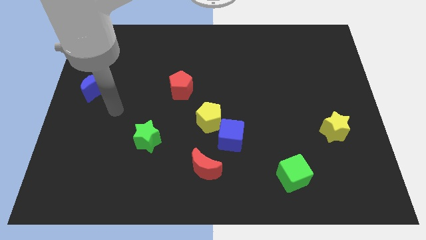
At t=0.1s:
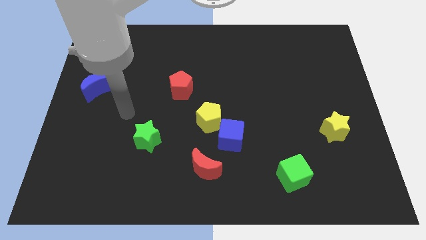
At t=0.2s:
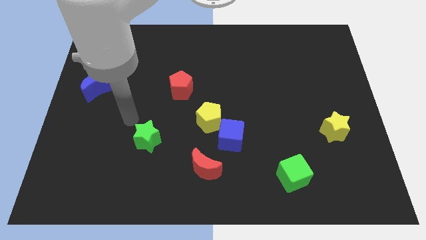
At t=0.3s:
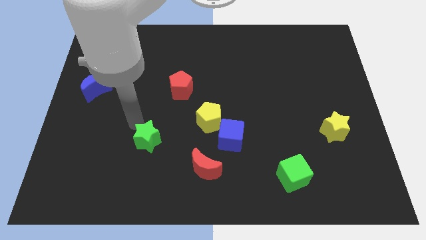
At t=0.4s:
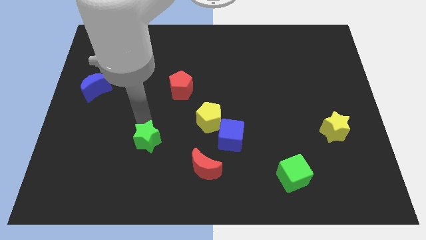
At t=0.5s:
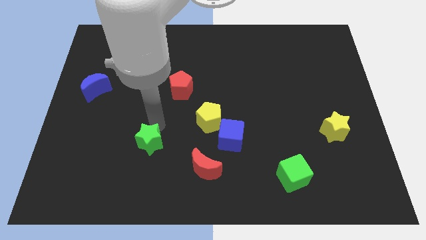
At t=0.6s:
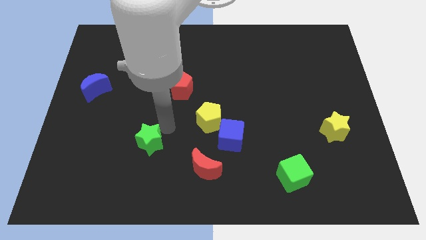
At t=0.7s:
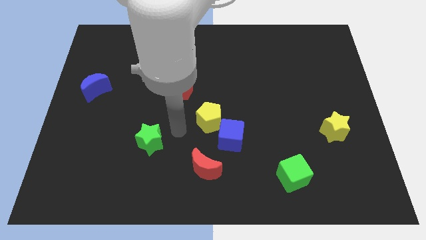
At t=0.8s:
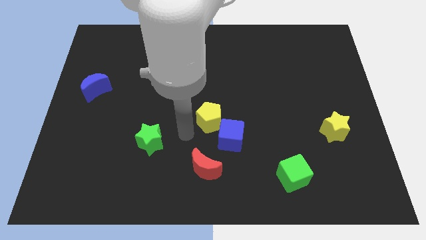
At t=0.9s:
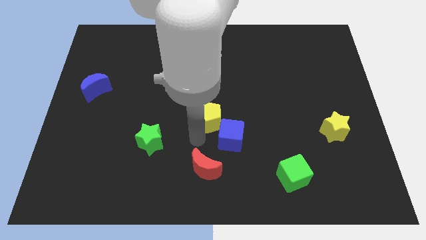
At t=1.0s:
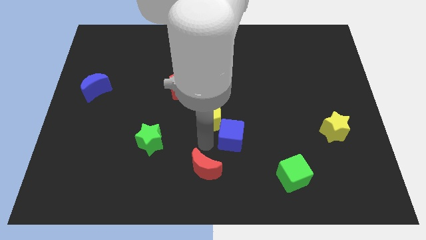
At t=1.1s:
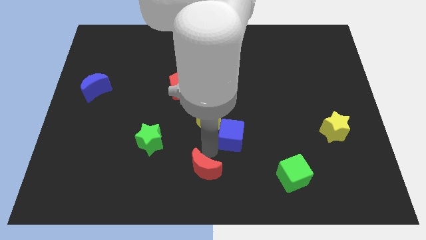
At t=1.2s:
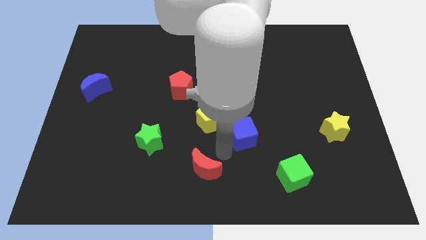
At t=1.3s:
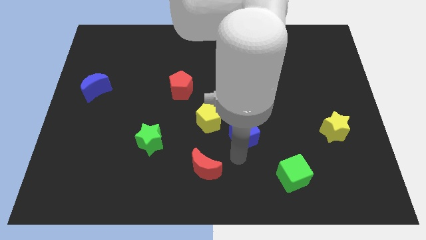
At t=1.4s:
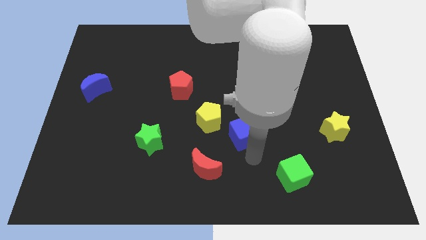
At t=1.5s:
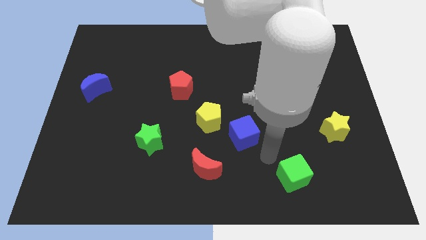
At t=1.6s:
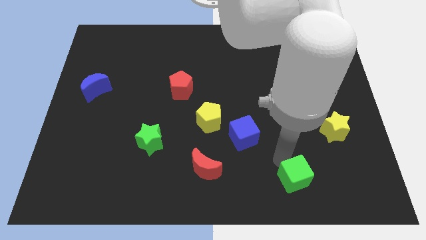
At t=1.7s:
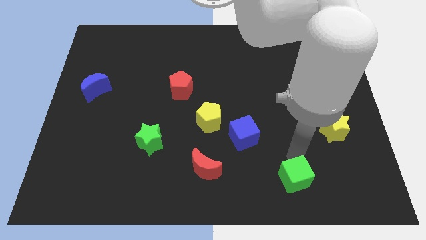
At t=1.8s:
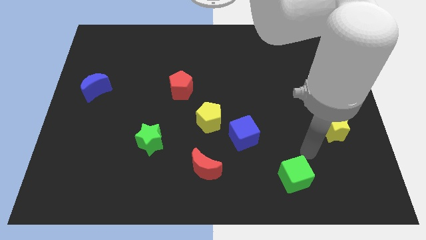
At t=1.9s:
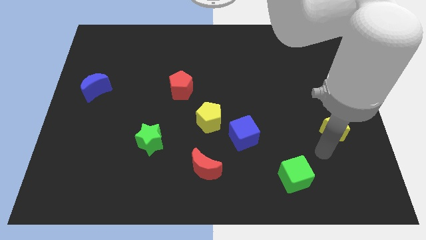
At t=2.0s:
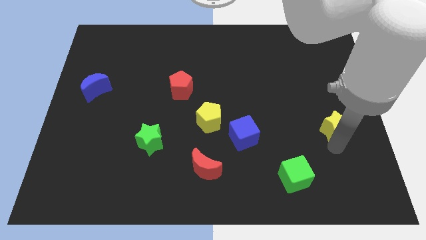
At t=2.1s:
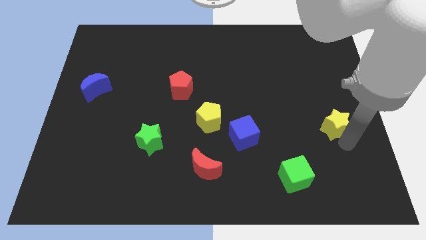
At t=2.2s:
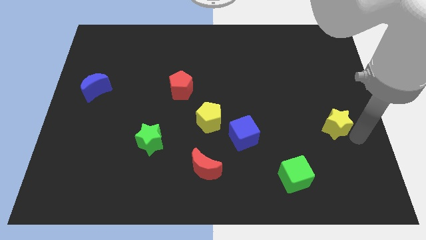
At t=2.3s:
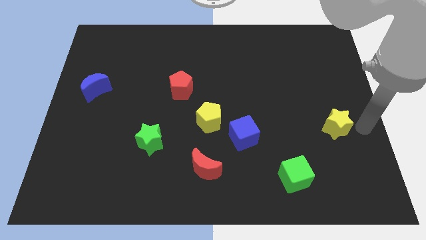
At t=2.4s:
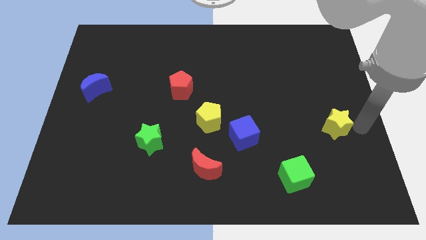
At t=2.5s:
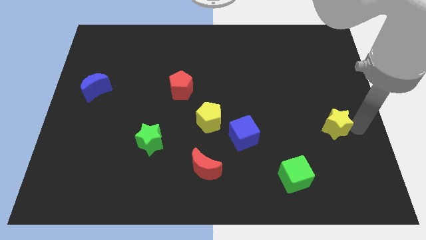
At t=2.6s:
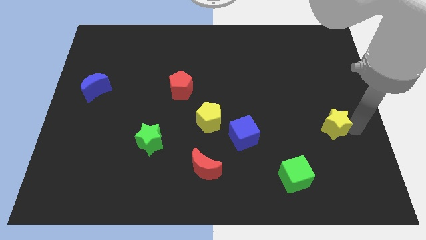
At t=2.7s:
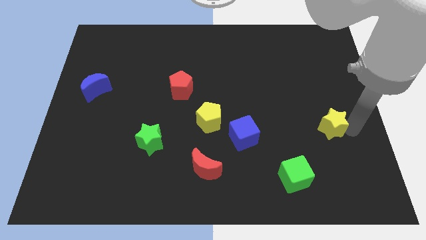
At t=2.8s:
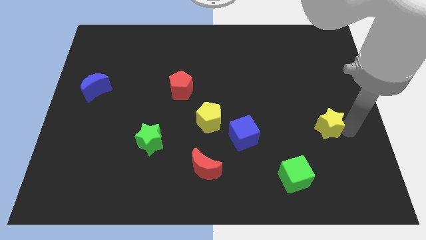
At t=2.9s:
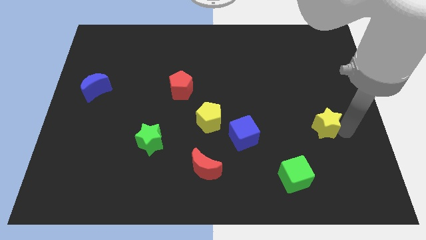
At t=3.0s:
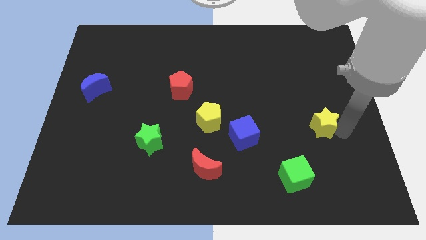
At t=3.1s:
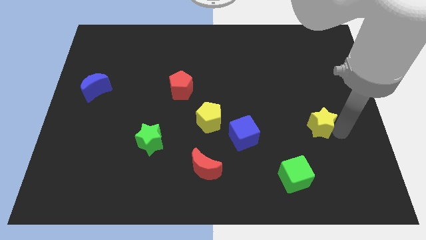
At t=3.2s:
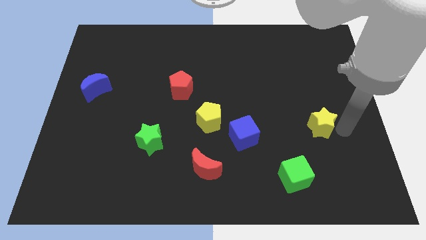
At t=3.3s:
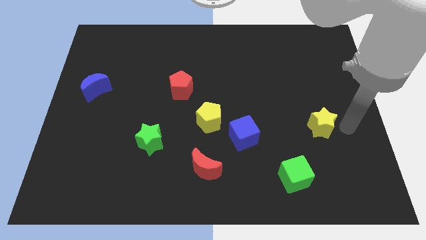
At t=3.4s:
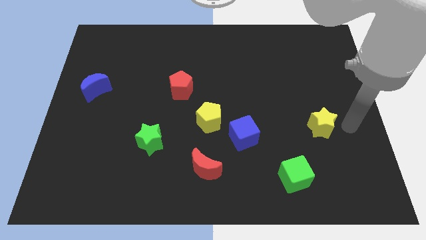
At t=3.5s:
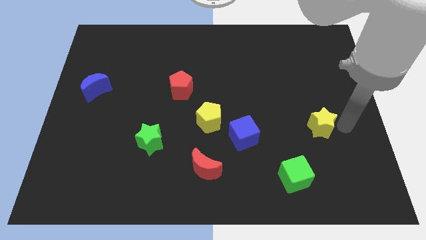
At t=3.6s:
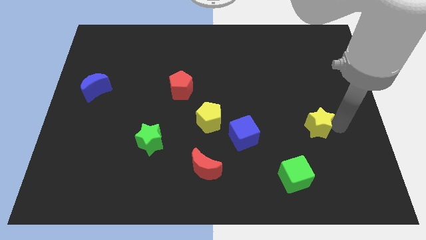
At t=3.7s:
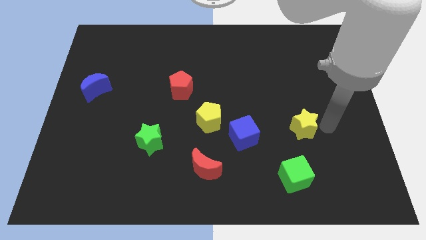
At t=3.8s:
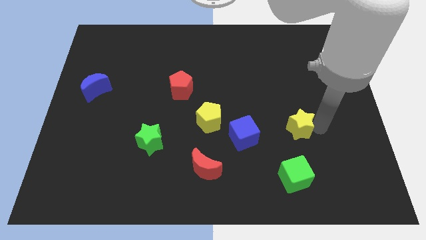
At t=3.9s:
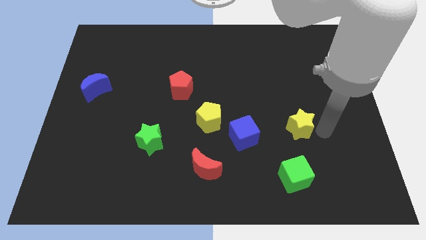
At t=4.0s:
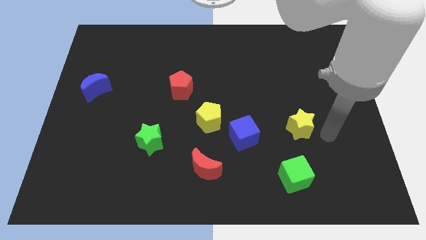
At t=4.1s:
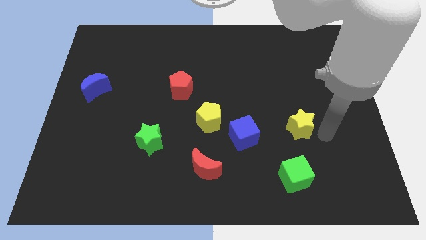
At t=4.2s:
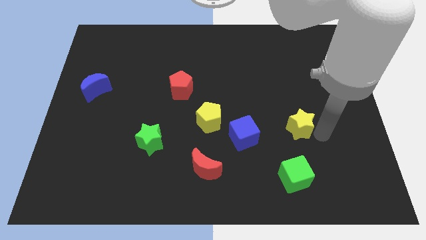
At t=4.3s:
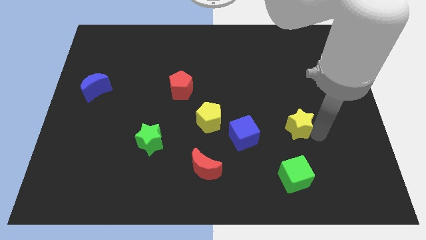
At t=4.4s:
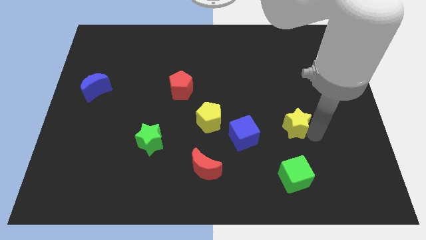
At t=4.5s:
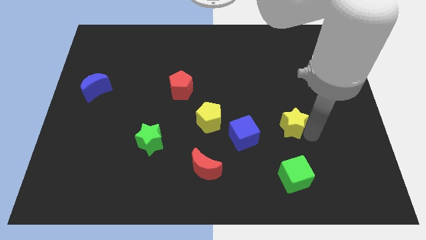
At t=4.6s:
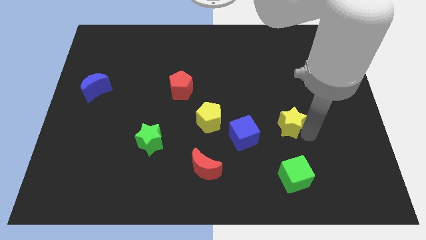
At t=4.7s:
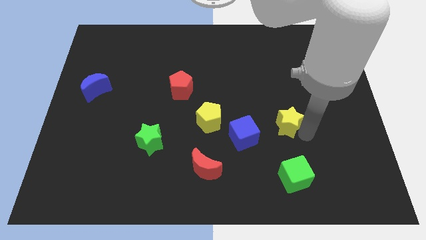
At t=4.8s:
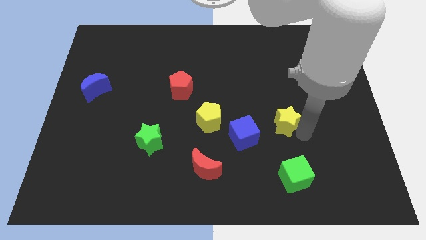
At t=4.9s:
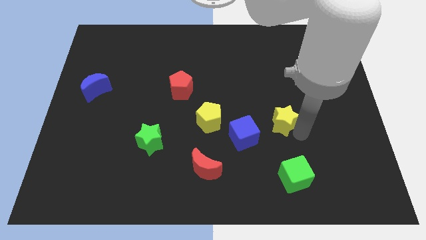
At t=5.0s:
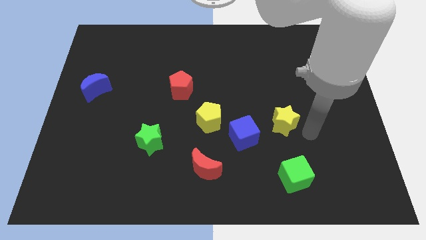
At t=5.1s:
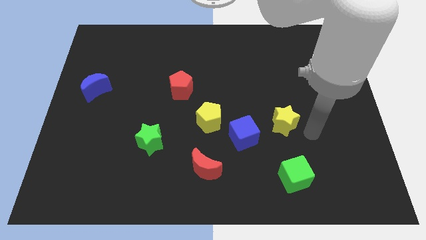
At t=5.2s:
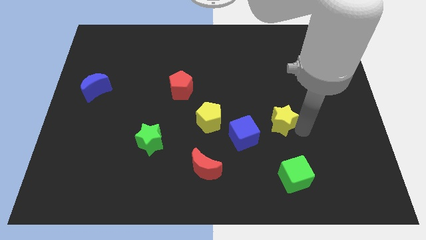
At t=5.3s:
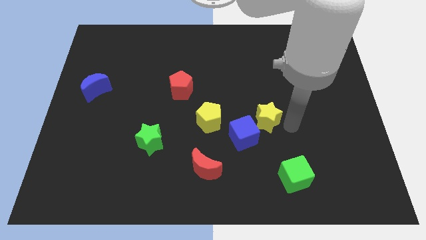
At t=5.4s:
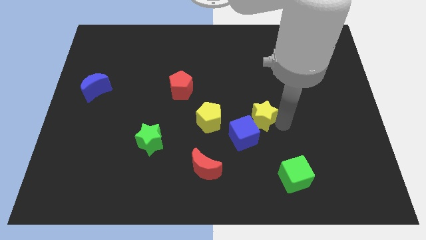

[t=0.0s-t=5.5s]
move the yellow star to the center of the board
